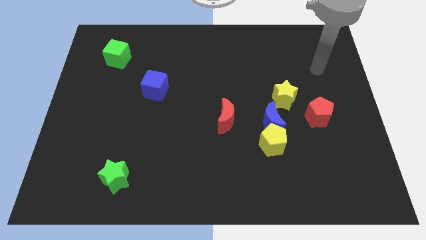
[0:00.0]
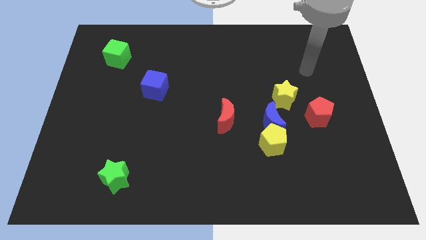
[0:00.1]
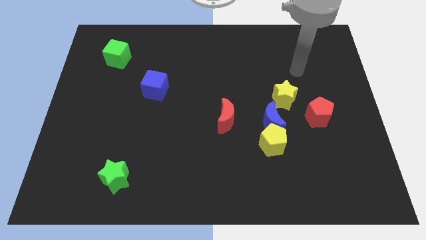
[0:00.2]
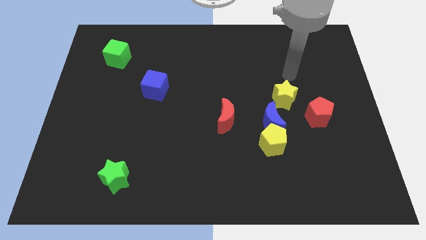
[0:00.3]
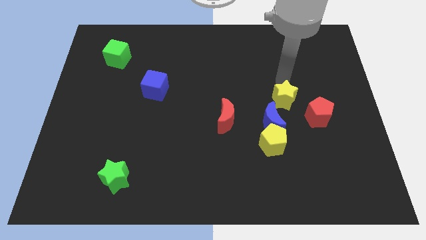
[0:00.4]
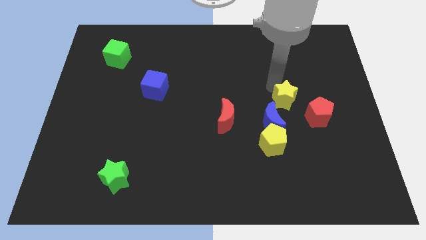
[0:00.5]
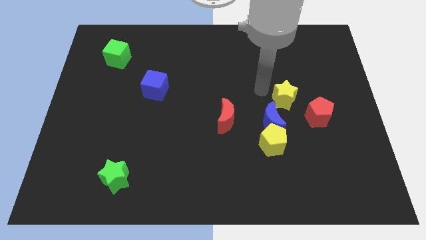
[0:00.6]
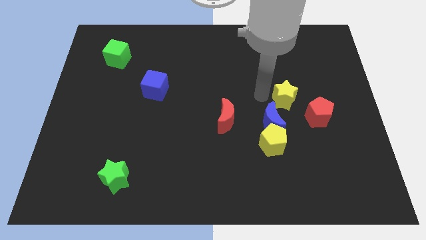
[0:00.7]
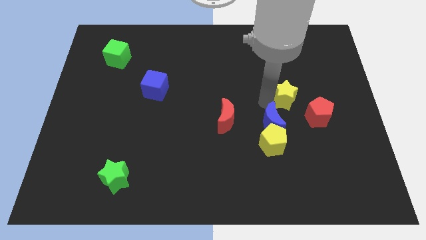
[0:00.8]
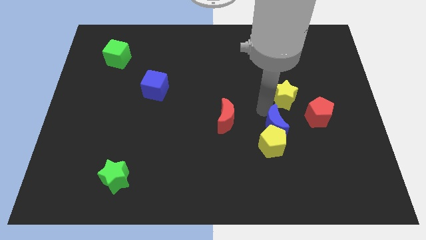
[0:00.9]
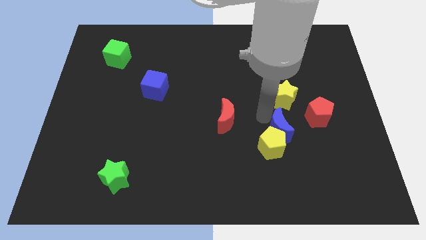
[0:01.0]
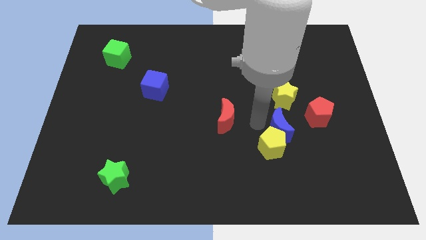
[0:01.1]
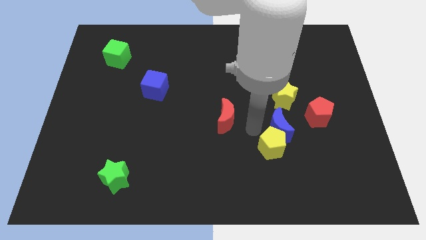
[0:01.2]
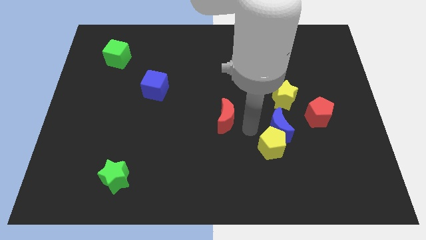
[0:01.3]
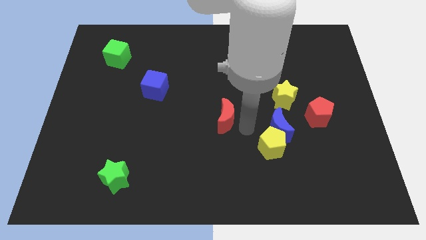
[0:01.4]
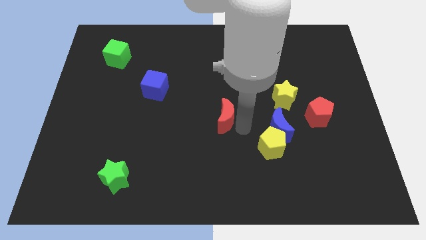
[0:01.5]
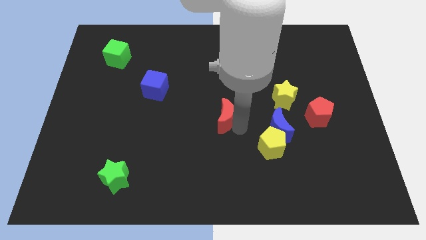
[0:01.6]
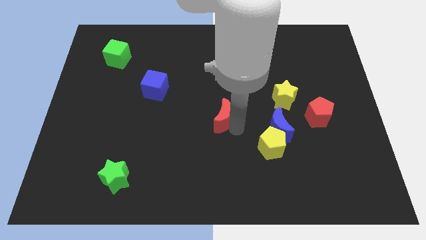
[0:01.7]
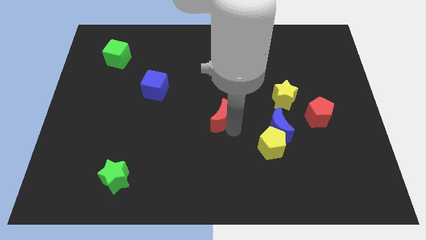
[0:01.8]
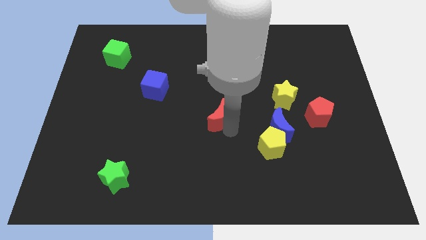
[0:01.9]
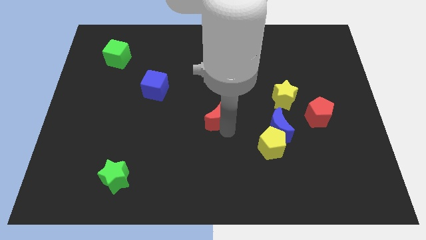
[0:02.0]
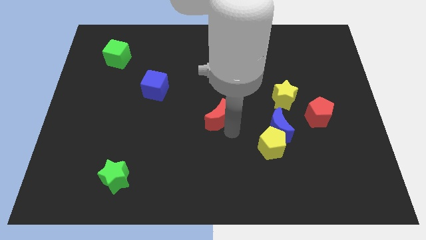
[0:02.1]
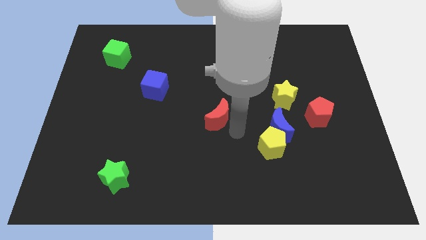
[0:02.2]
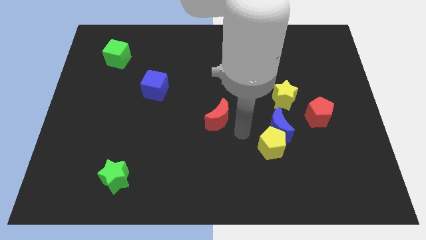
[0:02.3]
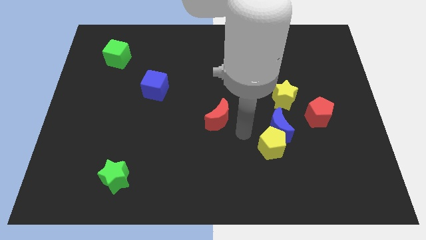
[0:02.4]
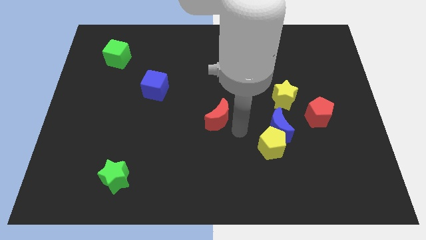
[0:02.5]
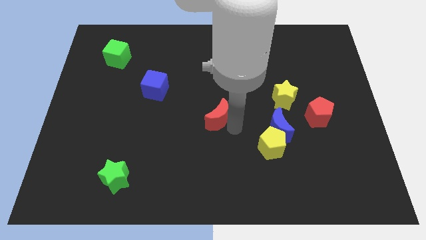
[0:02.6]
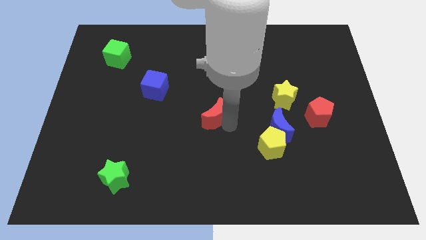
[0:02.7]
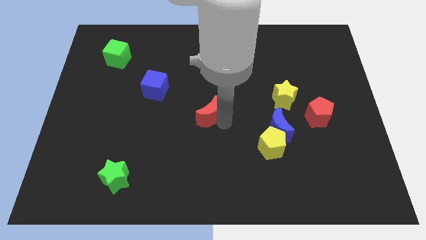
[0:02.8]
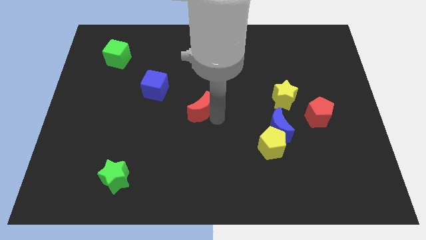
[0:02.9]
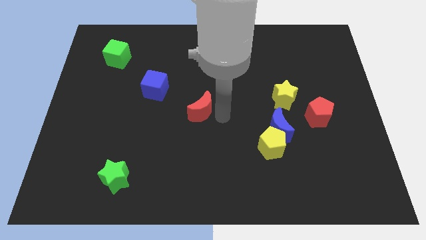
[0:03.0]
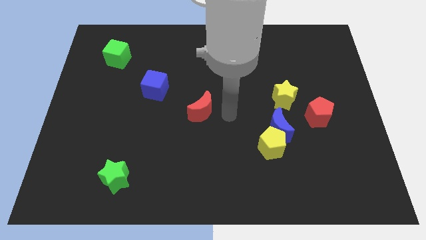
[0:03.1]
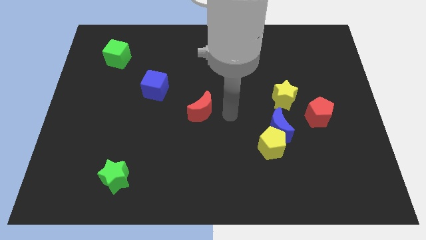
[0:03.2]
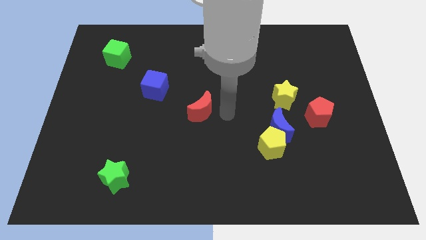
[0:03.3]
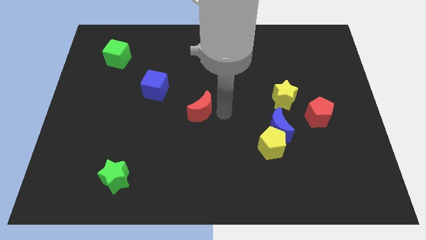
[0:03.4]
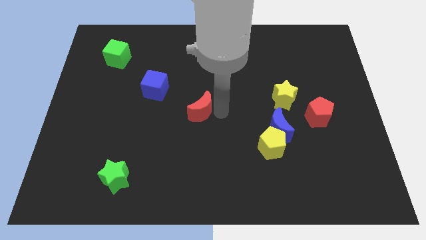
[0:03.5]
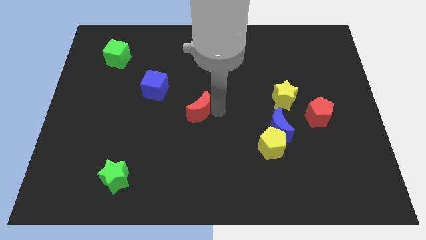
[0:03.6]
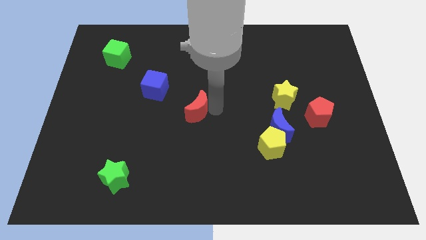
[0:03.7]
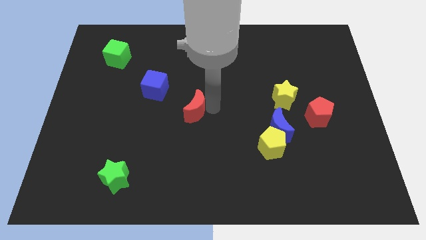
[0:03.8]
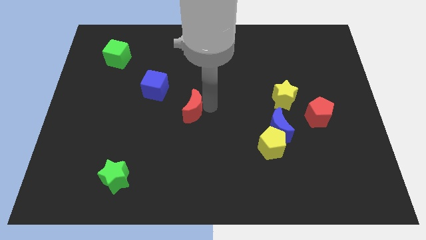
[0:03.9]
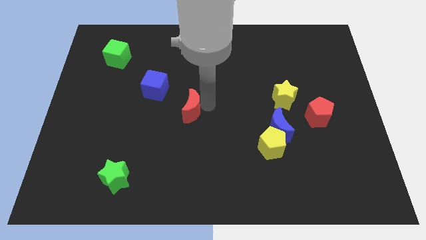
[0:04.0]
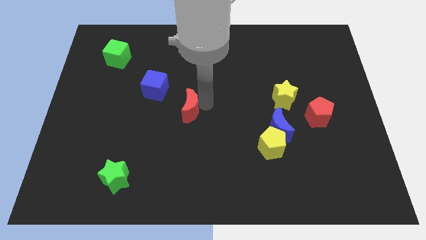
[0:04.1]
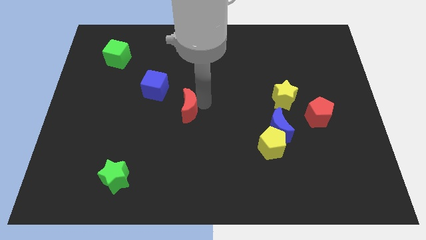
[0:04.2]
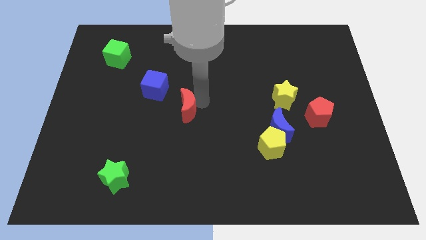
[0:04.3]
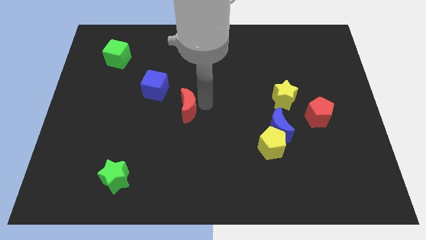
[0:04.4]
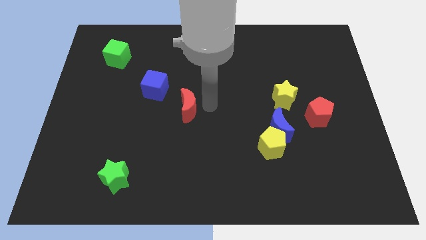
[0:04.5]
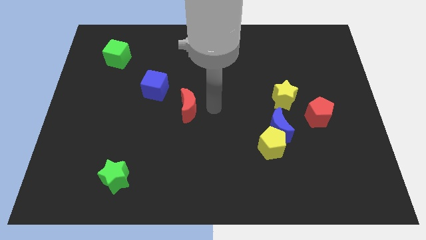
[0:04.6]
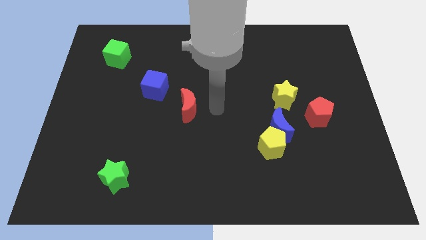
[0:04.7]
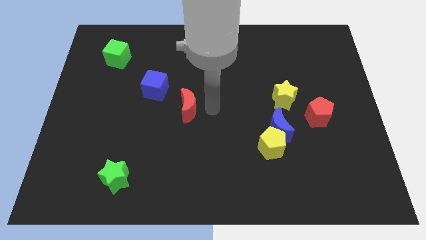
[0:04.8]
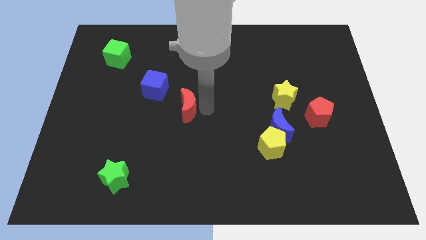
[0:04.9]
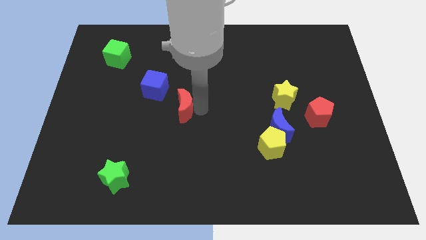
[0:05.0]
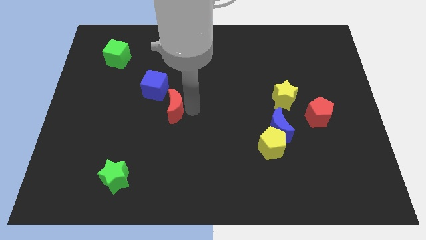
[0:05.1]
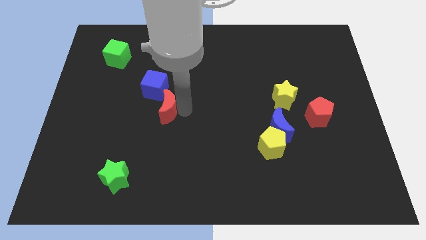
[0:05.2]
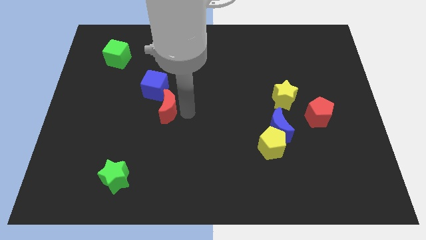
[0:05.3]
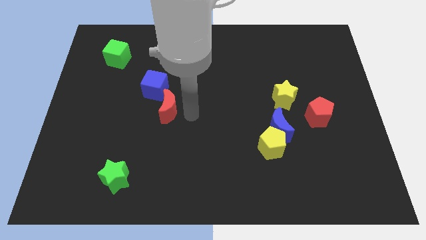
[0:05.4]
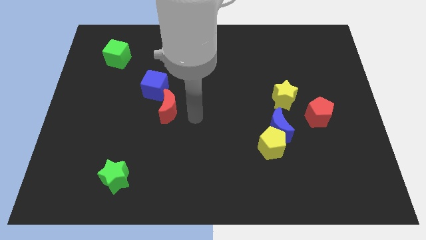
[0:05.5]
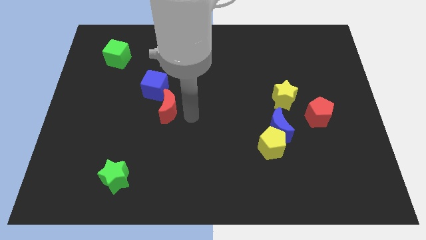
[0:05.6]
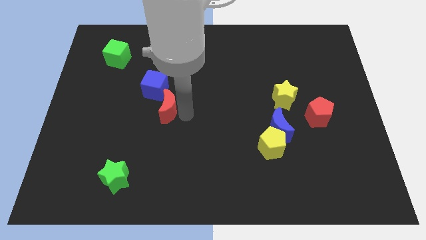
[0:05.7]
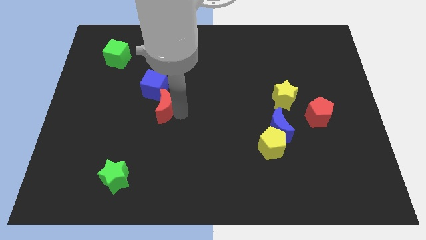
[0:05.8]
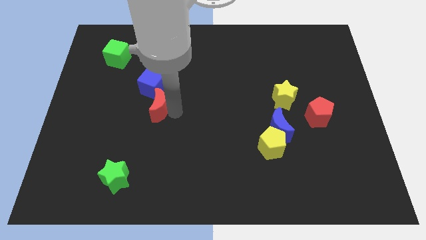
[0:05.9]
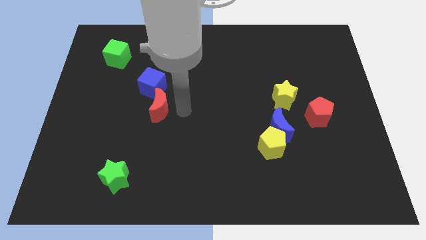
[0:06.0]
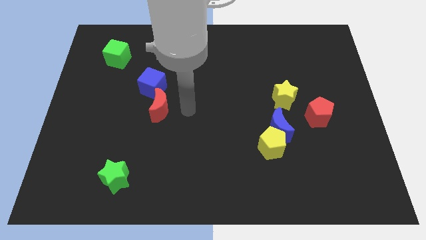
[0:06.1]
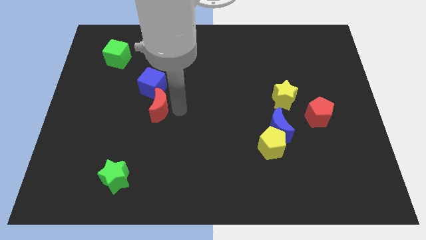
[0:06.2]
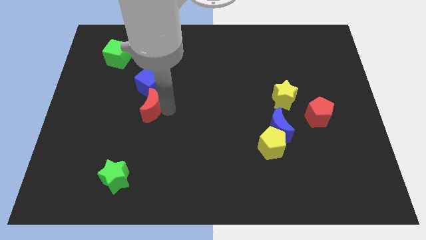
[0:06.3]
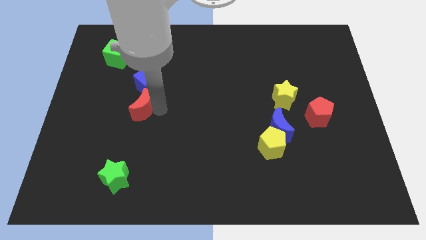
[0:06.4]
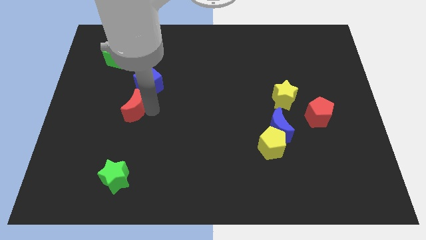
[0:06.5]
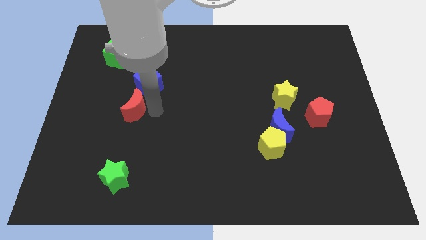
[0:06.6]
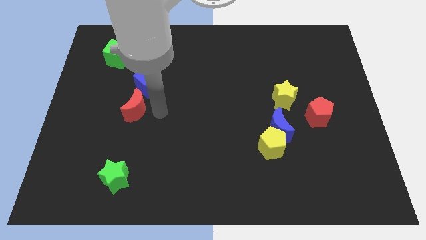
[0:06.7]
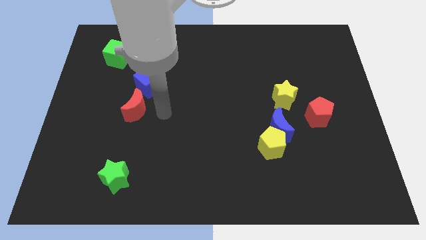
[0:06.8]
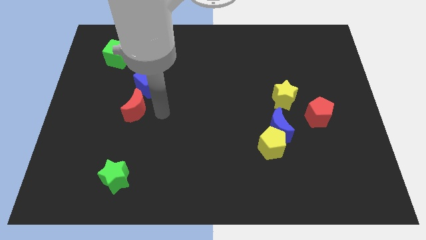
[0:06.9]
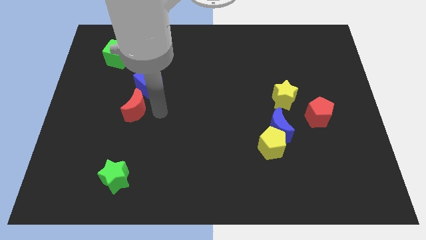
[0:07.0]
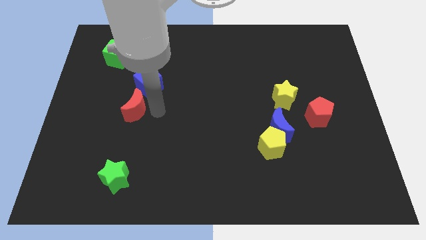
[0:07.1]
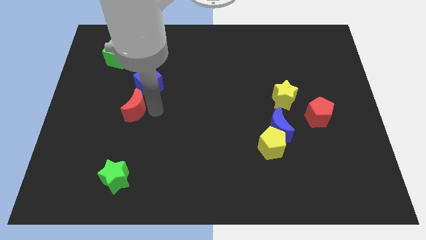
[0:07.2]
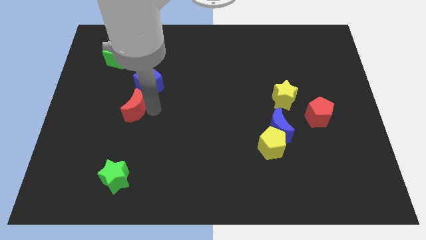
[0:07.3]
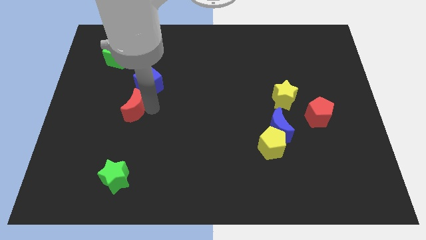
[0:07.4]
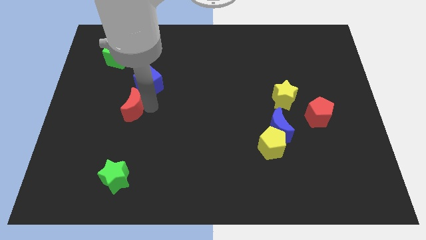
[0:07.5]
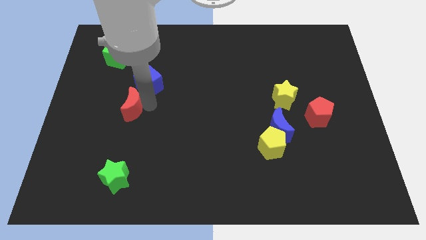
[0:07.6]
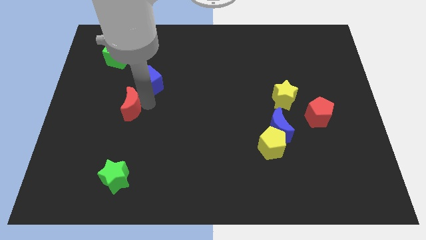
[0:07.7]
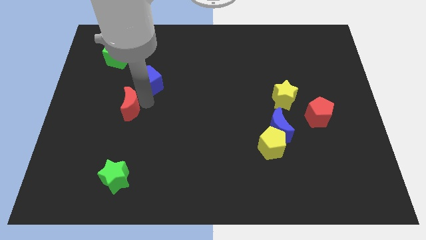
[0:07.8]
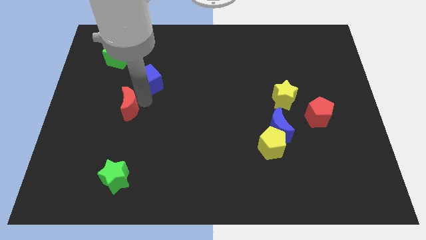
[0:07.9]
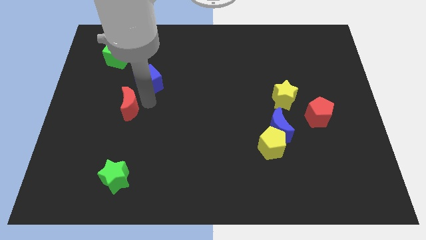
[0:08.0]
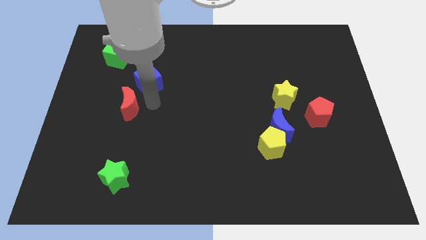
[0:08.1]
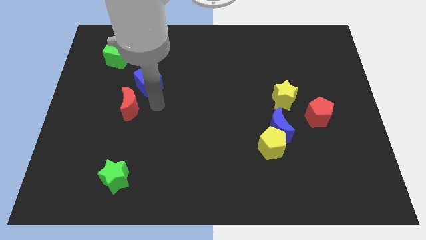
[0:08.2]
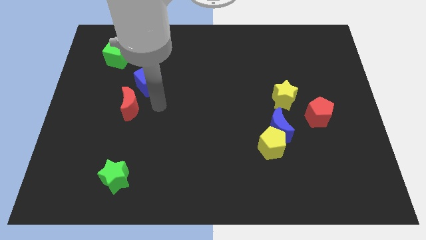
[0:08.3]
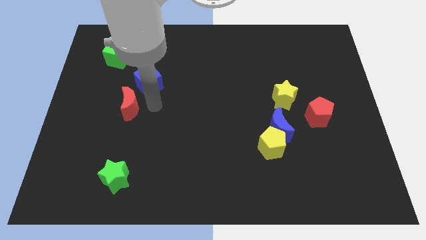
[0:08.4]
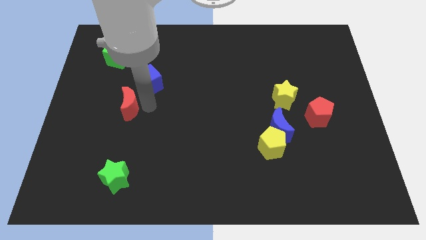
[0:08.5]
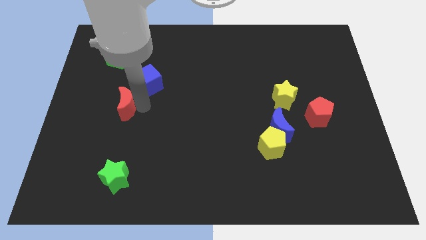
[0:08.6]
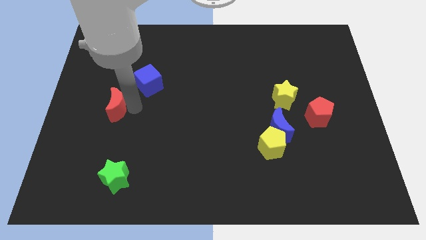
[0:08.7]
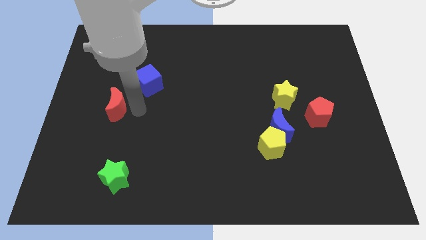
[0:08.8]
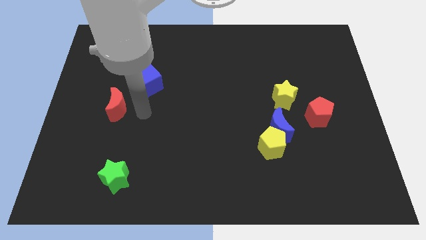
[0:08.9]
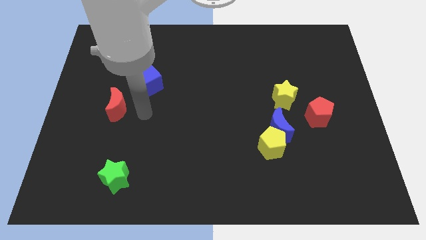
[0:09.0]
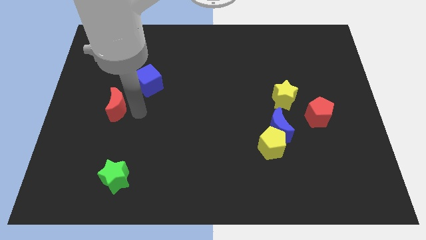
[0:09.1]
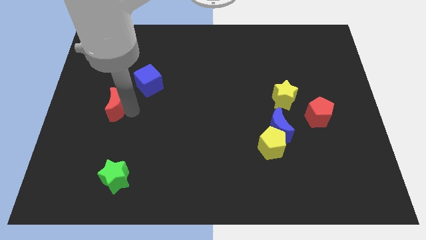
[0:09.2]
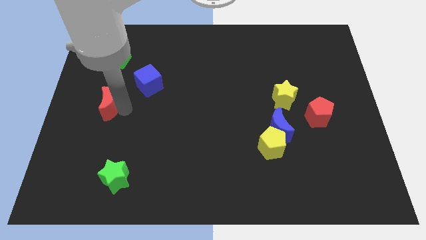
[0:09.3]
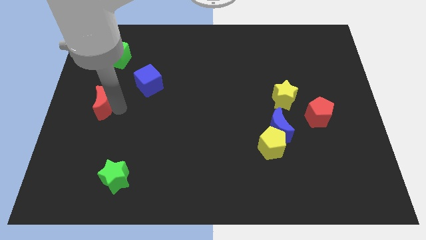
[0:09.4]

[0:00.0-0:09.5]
push the red moon to the left side
